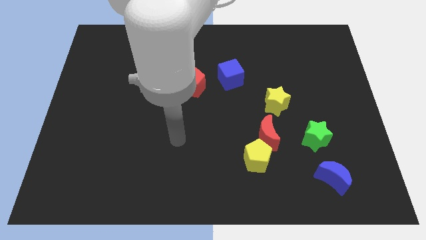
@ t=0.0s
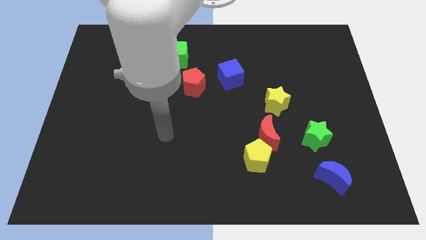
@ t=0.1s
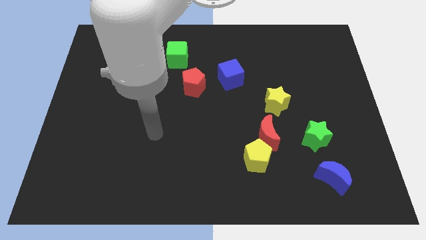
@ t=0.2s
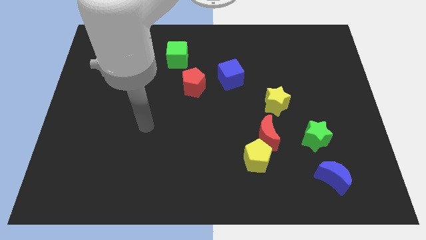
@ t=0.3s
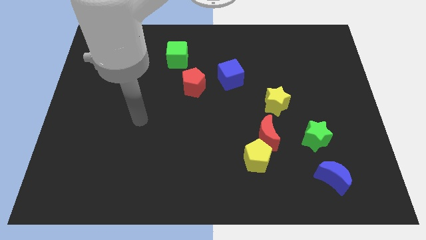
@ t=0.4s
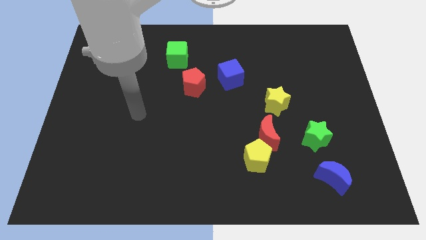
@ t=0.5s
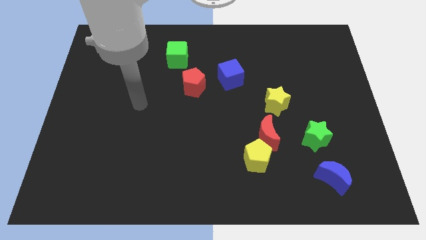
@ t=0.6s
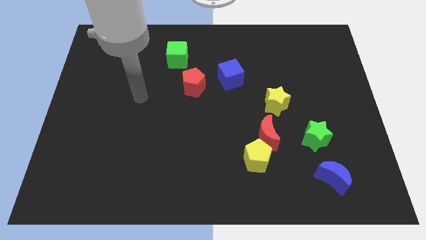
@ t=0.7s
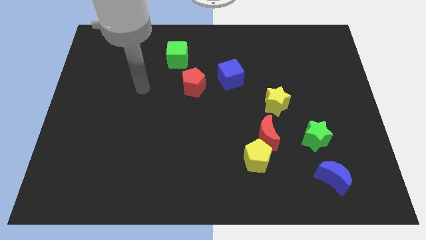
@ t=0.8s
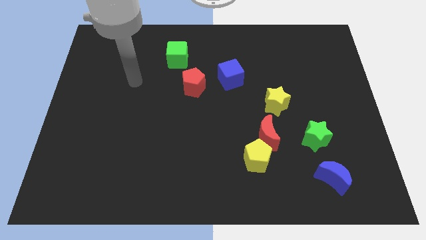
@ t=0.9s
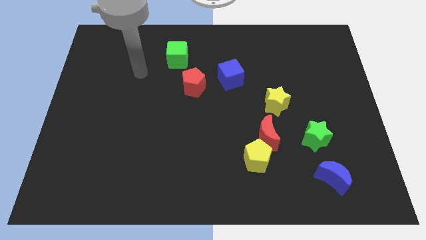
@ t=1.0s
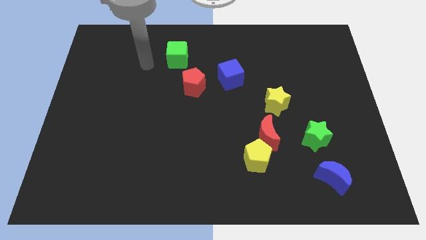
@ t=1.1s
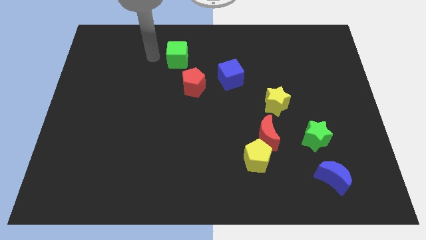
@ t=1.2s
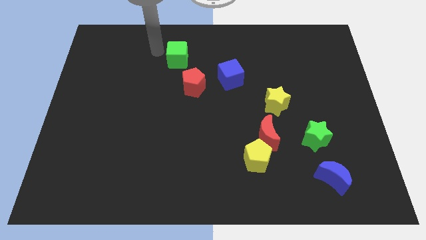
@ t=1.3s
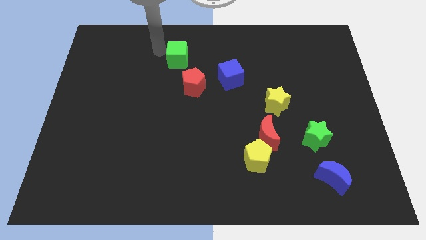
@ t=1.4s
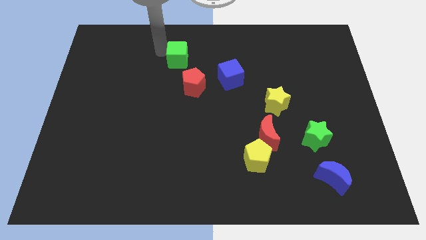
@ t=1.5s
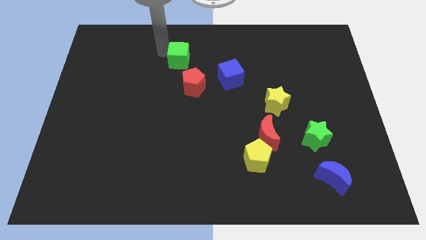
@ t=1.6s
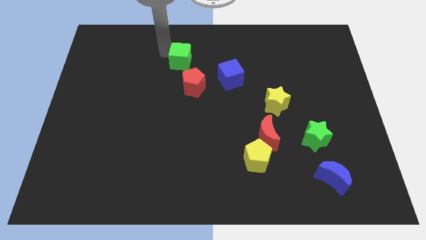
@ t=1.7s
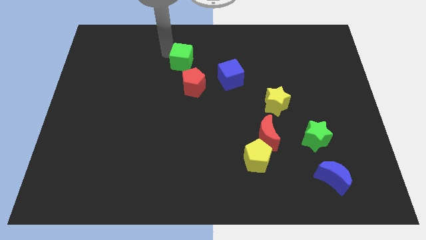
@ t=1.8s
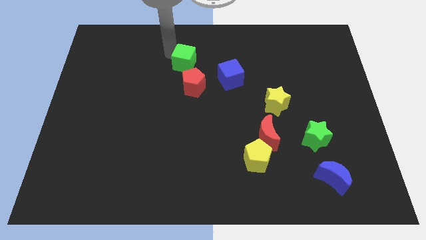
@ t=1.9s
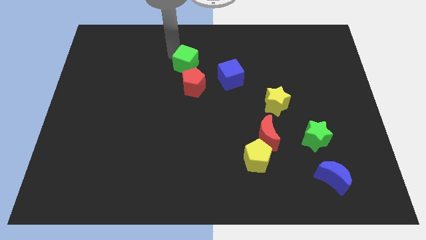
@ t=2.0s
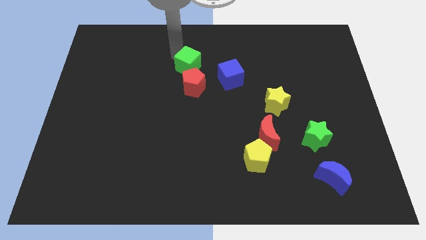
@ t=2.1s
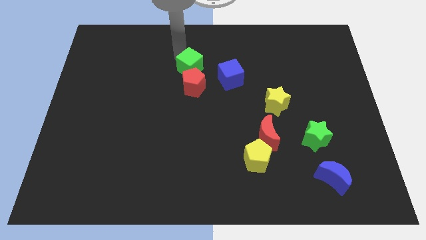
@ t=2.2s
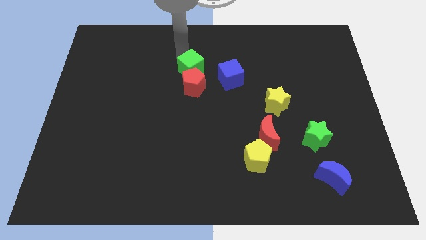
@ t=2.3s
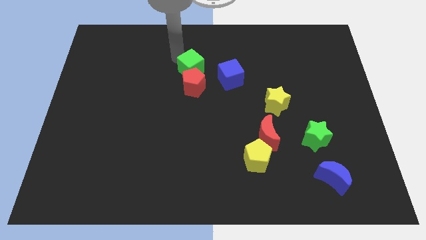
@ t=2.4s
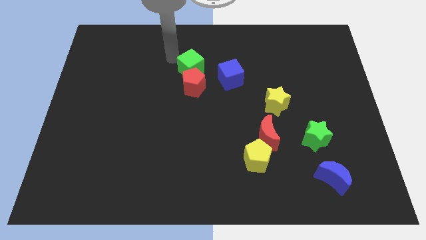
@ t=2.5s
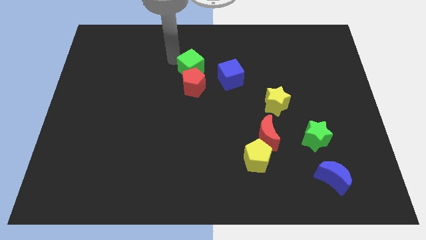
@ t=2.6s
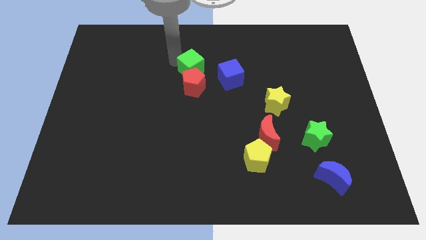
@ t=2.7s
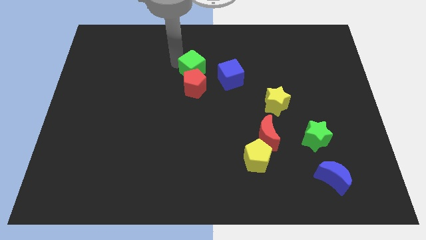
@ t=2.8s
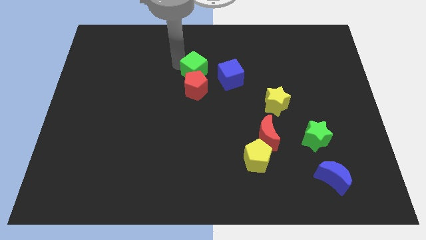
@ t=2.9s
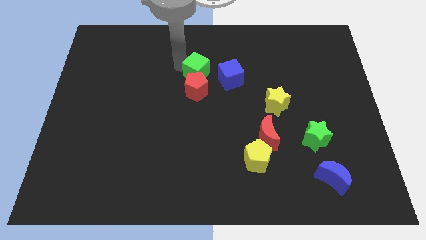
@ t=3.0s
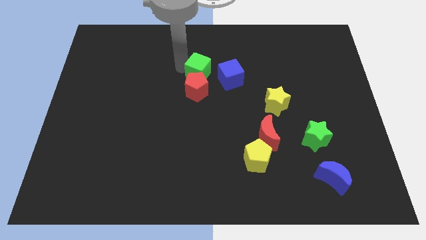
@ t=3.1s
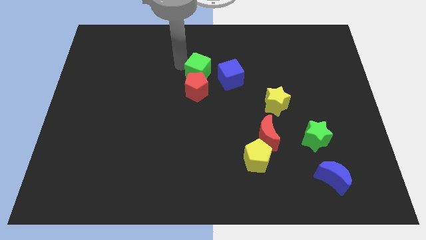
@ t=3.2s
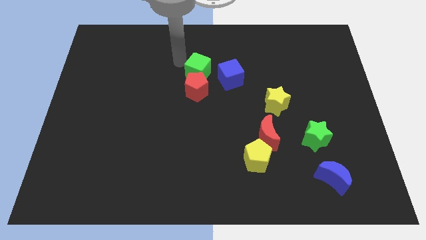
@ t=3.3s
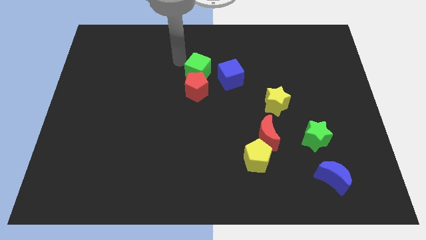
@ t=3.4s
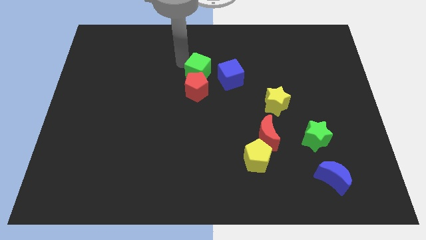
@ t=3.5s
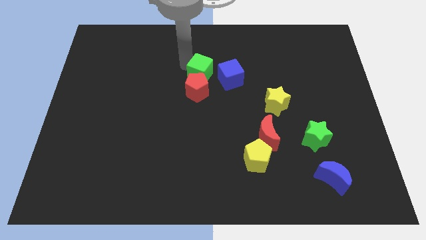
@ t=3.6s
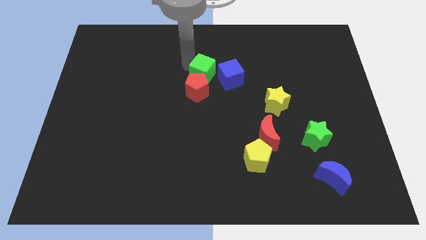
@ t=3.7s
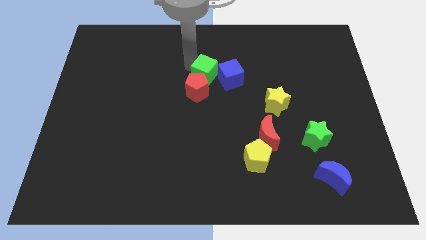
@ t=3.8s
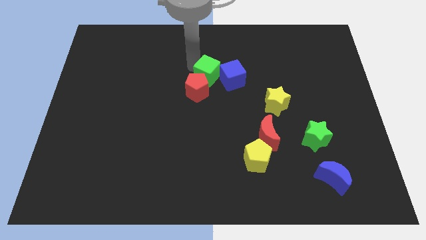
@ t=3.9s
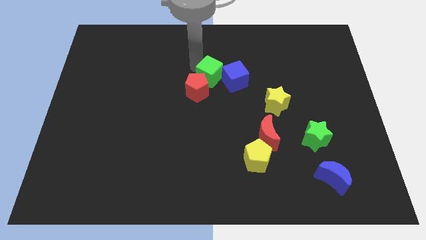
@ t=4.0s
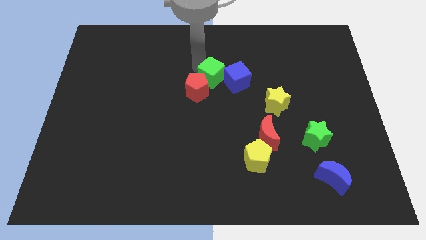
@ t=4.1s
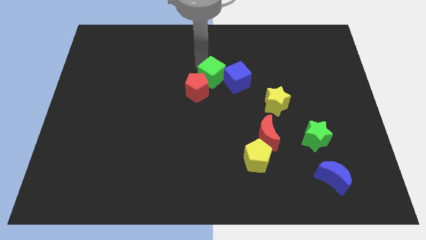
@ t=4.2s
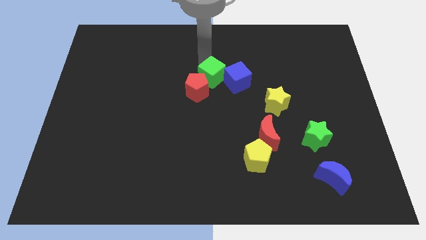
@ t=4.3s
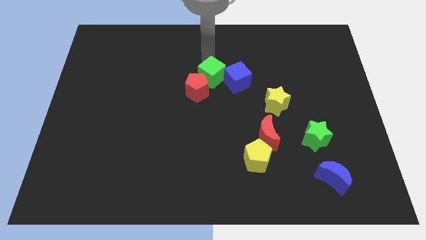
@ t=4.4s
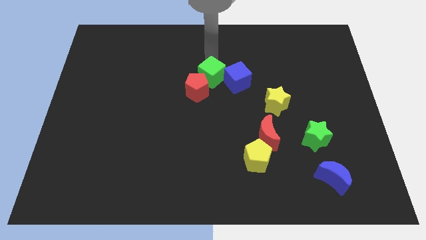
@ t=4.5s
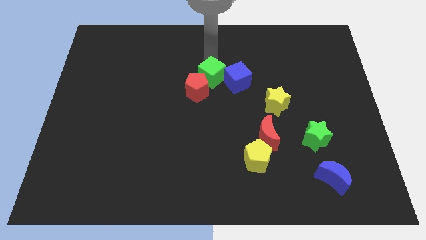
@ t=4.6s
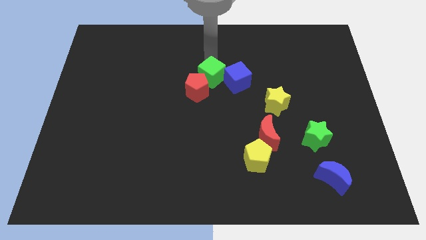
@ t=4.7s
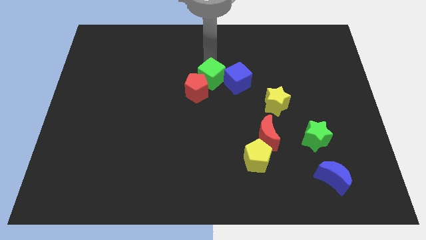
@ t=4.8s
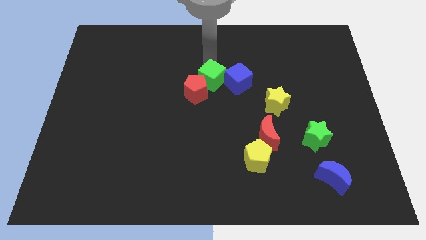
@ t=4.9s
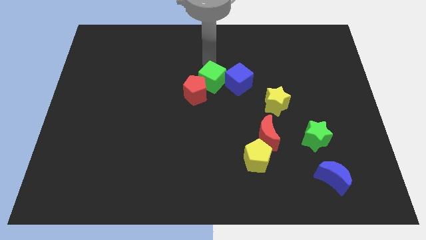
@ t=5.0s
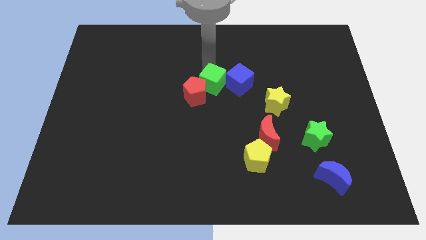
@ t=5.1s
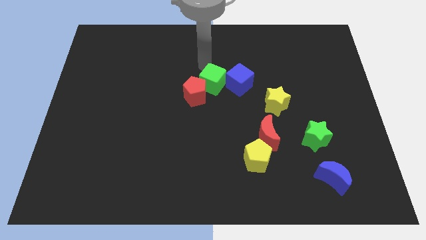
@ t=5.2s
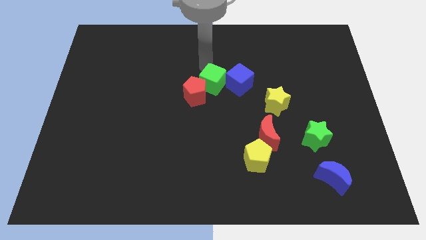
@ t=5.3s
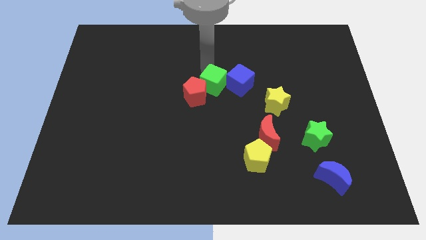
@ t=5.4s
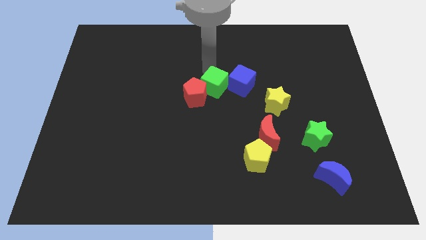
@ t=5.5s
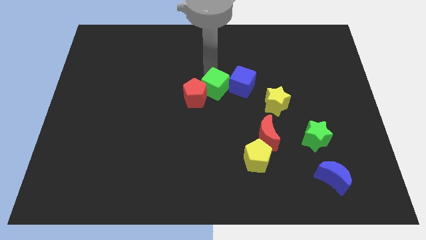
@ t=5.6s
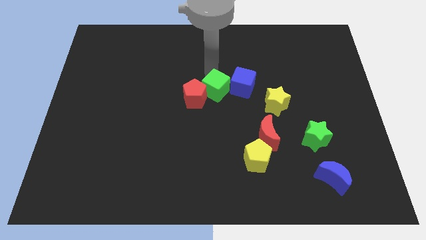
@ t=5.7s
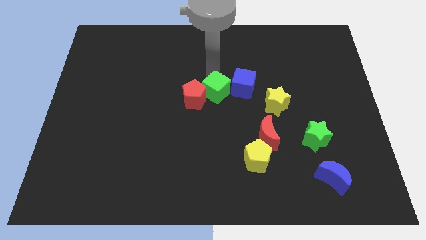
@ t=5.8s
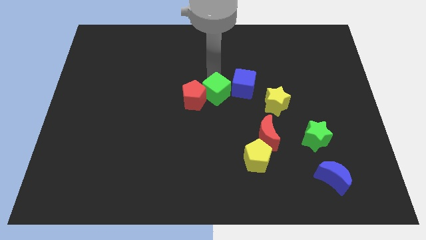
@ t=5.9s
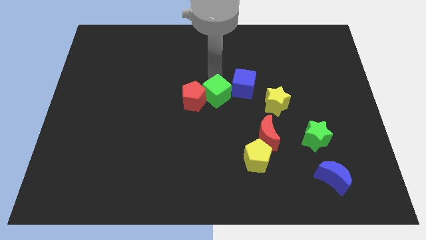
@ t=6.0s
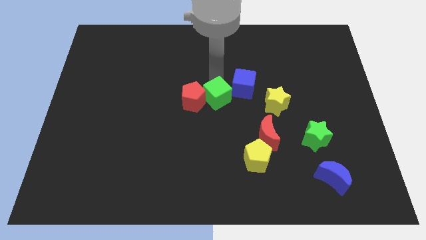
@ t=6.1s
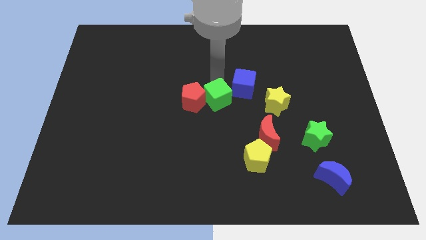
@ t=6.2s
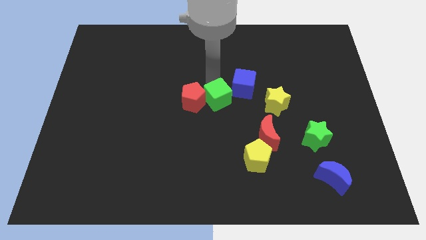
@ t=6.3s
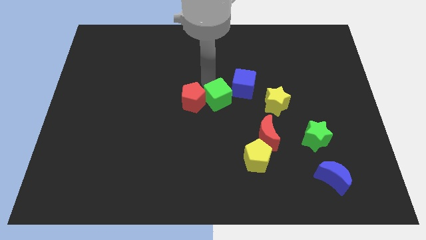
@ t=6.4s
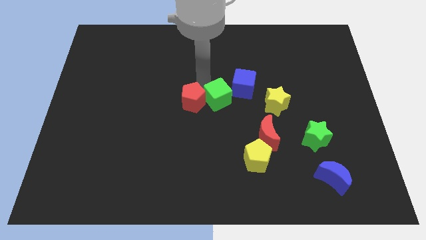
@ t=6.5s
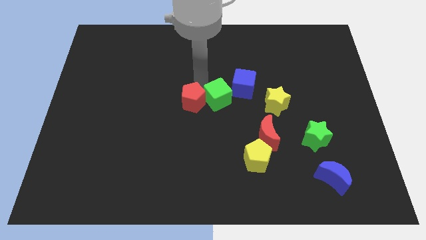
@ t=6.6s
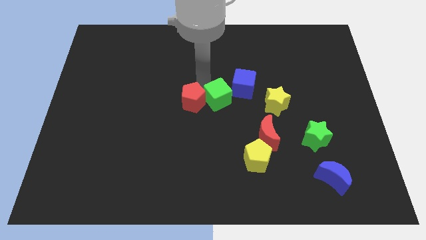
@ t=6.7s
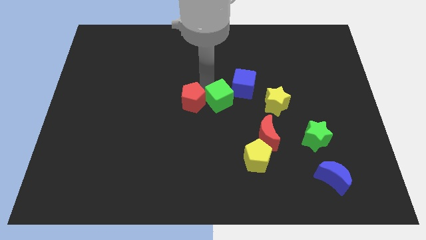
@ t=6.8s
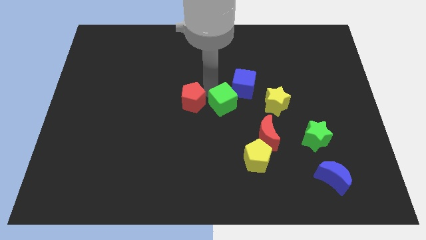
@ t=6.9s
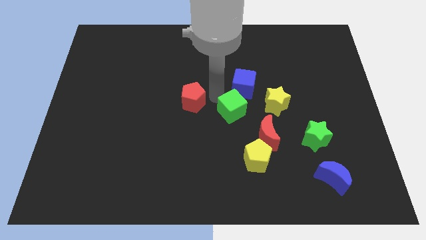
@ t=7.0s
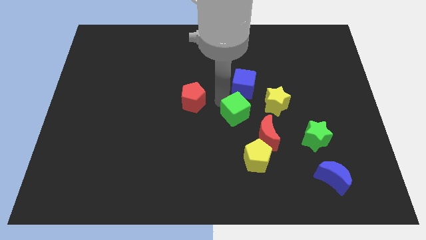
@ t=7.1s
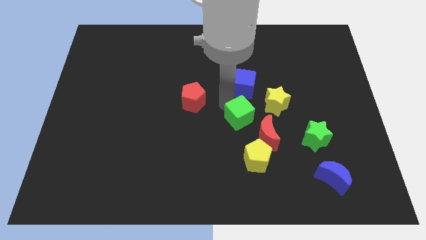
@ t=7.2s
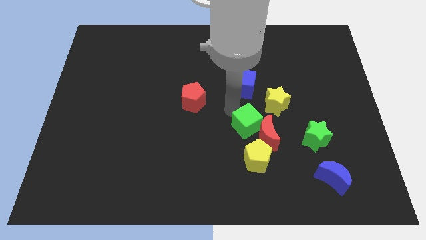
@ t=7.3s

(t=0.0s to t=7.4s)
slide the green cube next to the red moon
